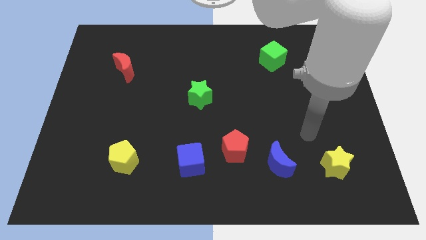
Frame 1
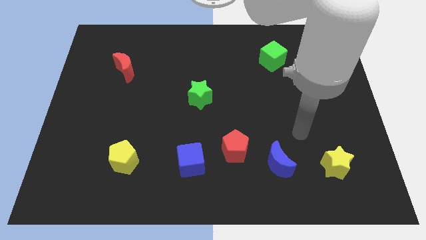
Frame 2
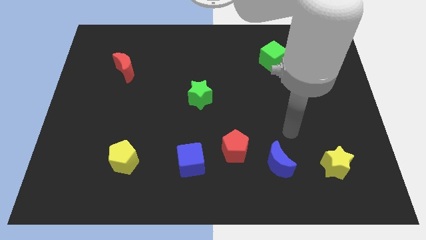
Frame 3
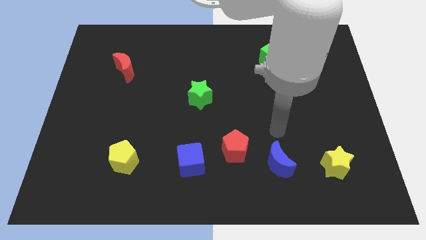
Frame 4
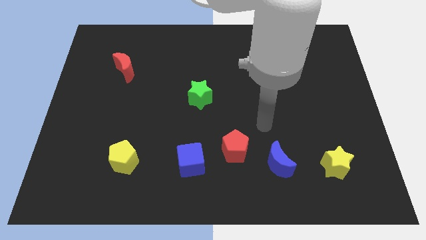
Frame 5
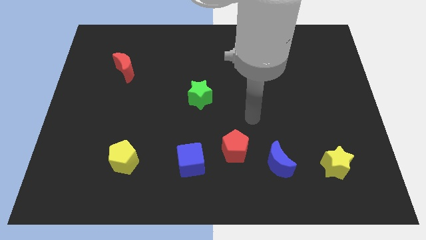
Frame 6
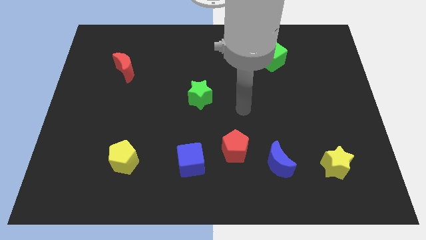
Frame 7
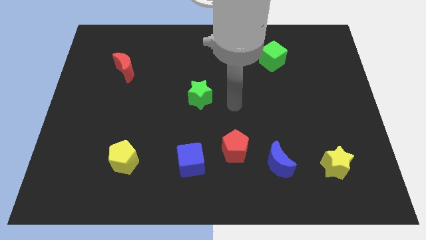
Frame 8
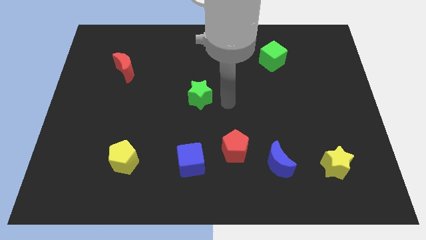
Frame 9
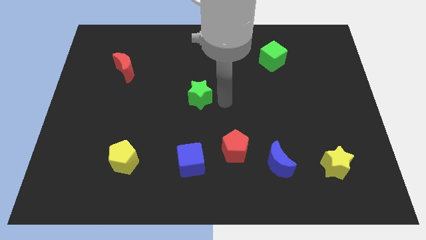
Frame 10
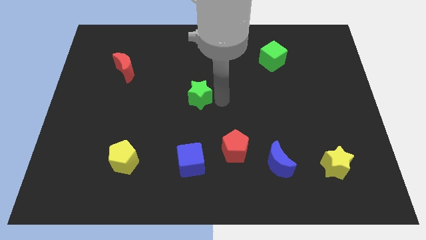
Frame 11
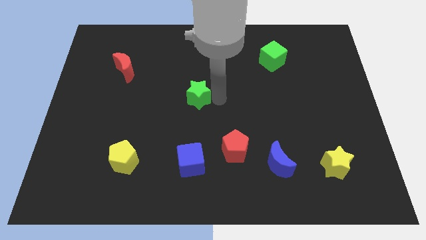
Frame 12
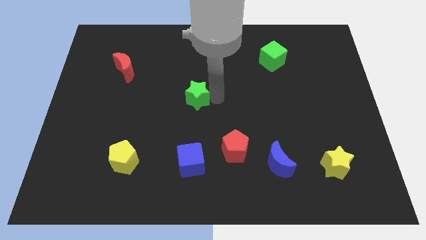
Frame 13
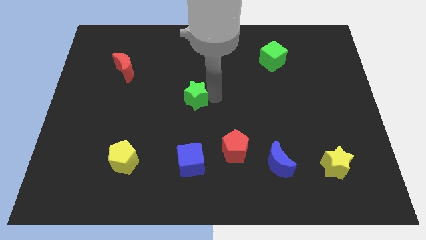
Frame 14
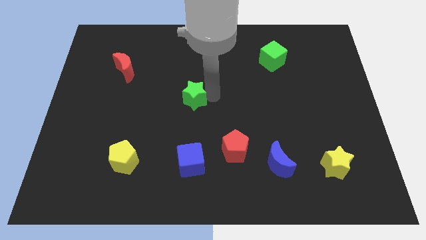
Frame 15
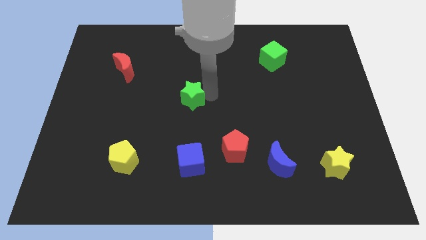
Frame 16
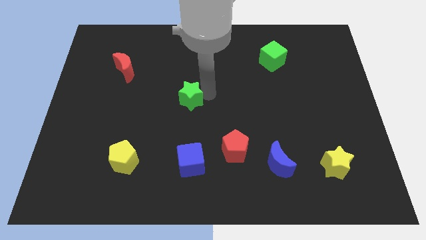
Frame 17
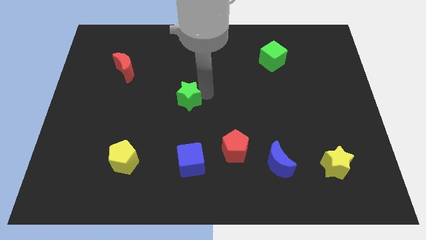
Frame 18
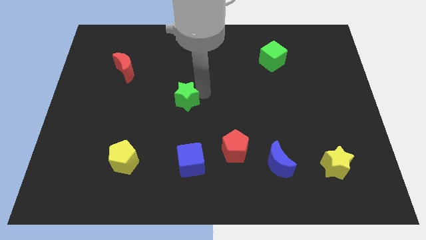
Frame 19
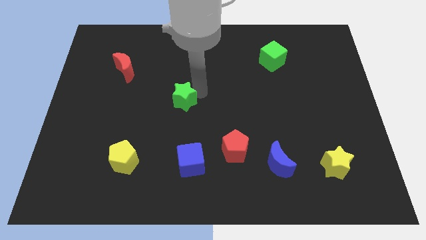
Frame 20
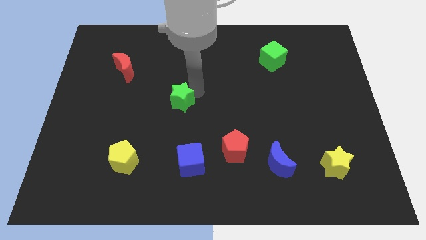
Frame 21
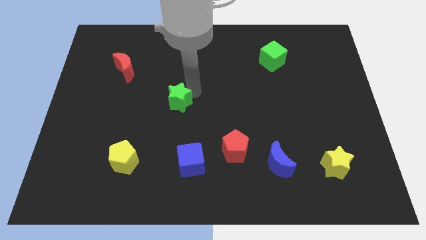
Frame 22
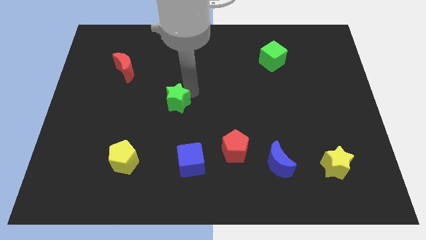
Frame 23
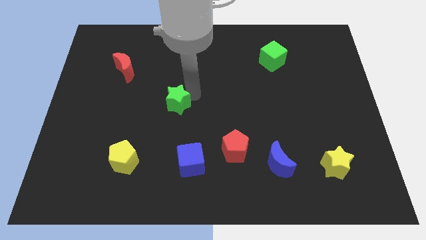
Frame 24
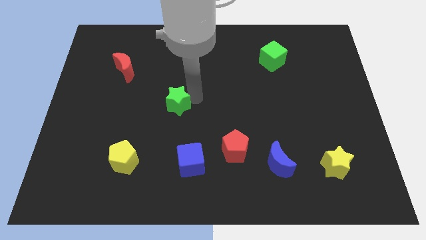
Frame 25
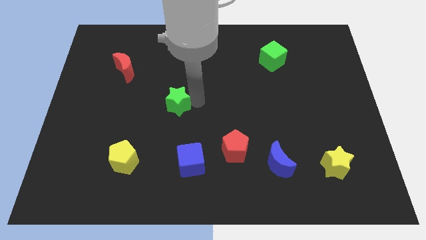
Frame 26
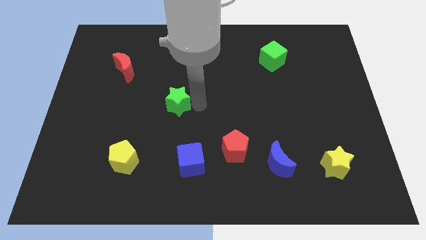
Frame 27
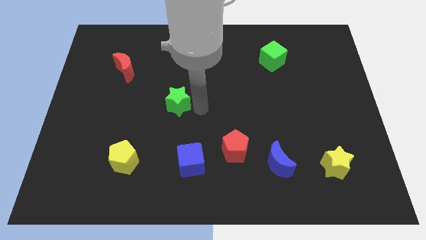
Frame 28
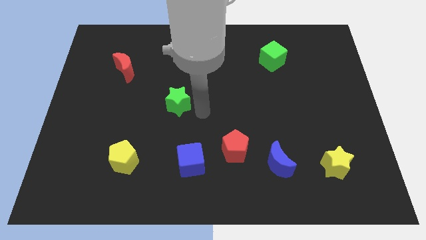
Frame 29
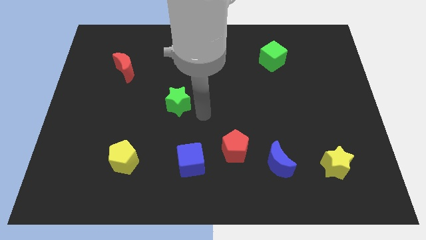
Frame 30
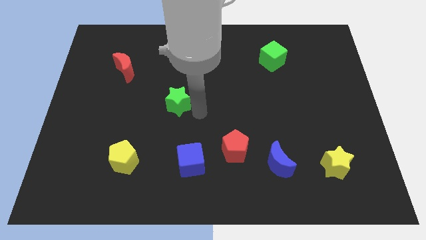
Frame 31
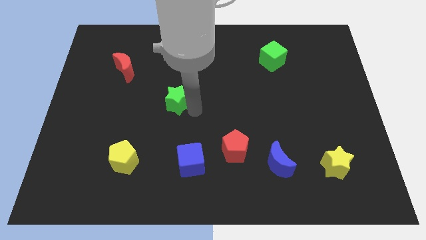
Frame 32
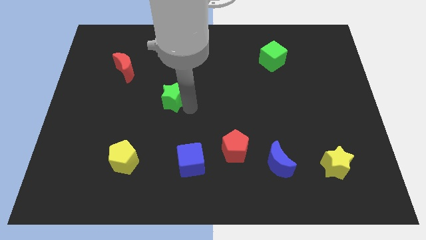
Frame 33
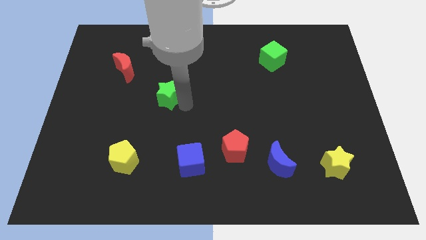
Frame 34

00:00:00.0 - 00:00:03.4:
move the green star left a bit

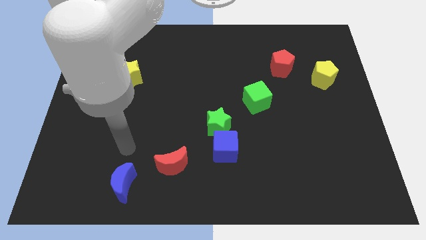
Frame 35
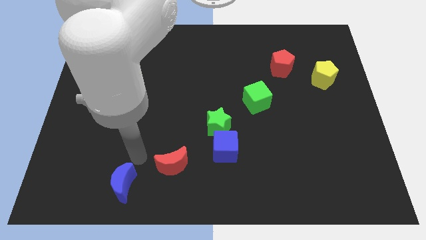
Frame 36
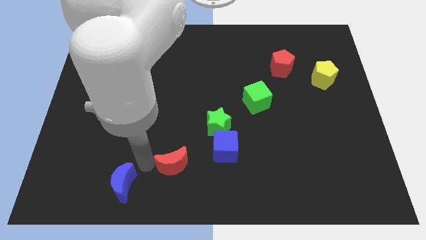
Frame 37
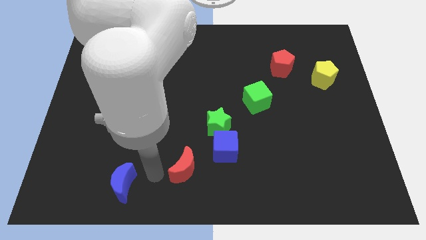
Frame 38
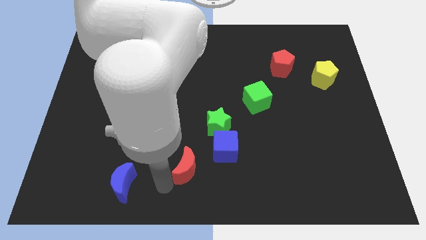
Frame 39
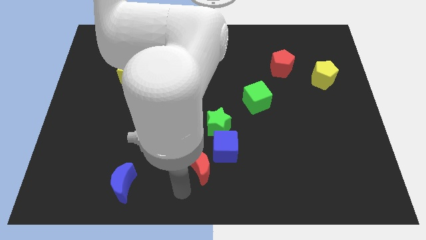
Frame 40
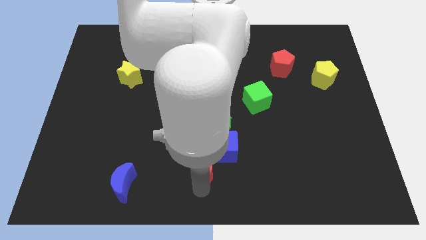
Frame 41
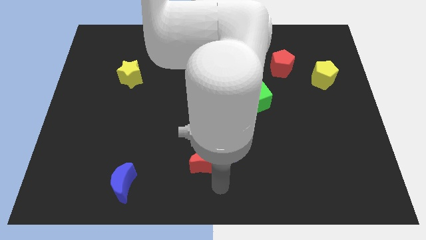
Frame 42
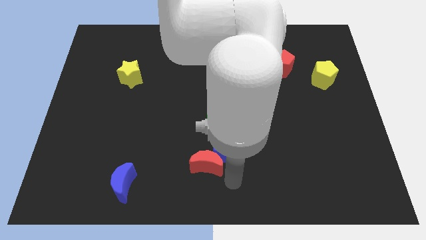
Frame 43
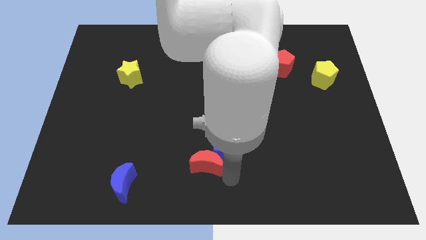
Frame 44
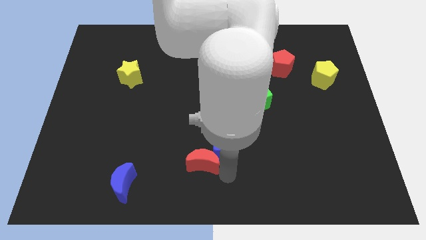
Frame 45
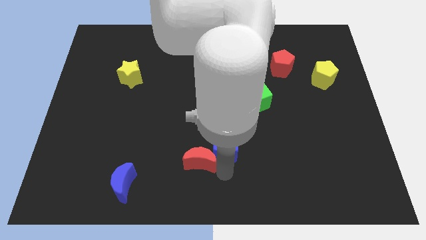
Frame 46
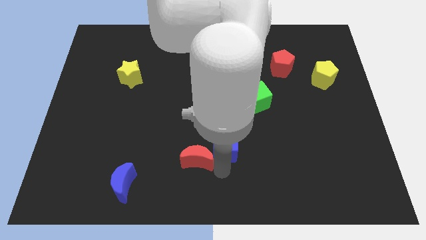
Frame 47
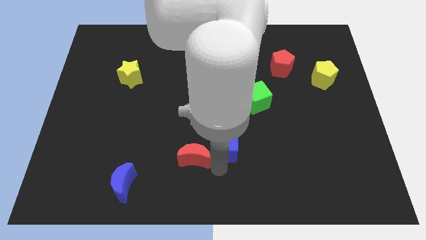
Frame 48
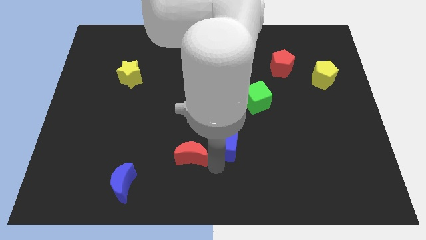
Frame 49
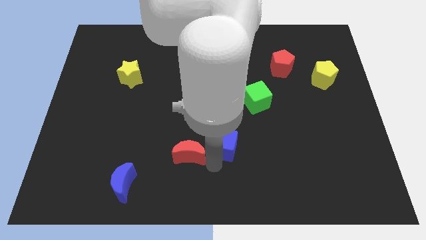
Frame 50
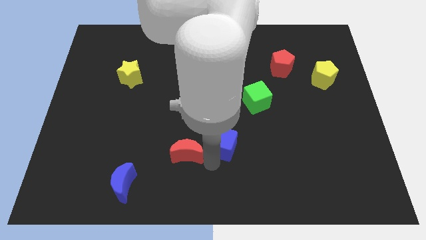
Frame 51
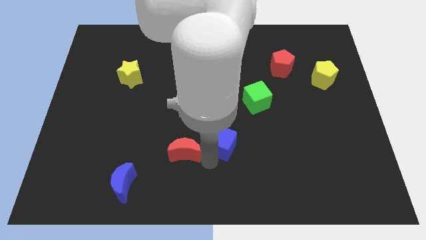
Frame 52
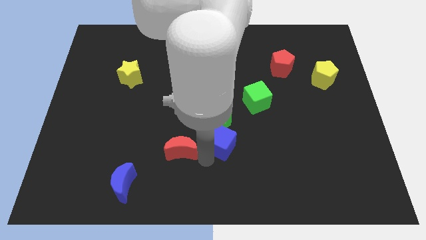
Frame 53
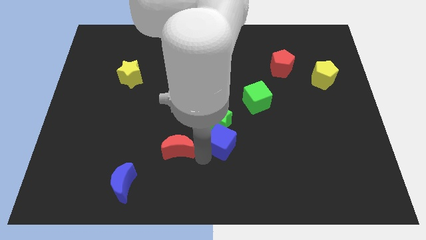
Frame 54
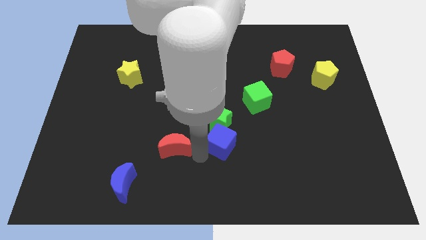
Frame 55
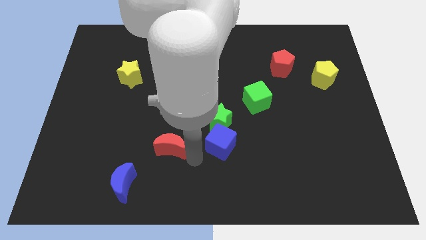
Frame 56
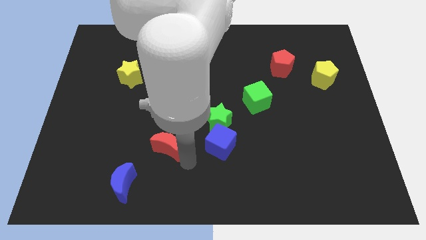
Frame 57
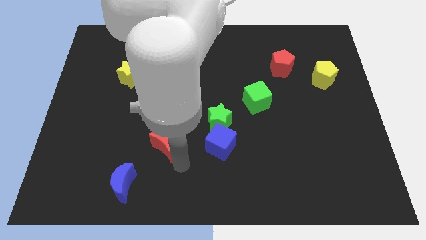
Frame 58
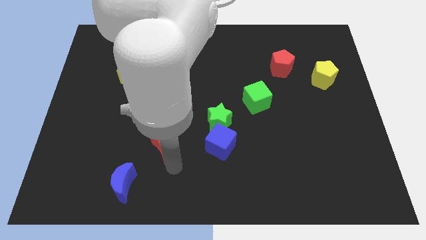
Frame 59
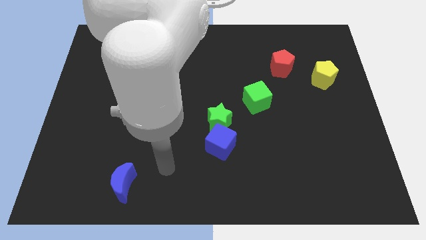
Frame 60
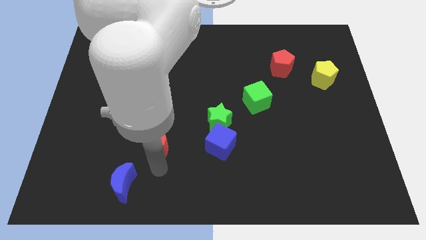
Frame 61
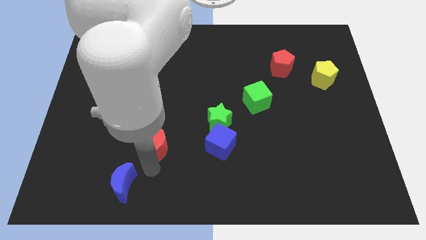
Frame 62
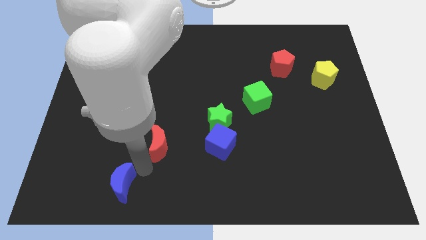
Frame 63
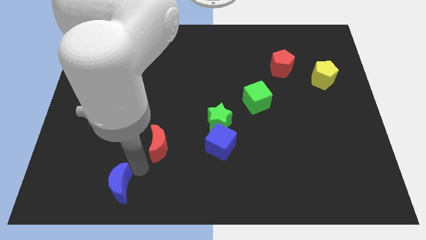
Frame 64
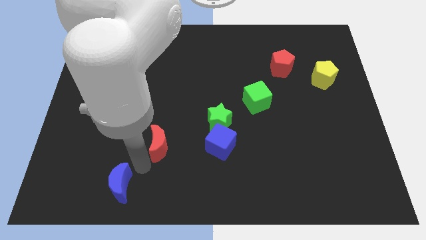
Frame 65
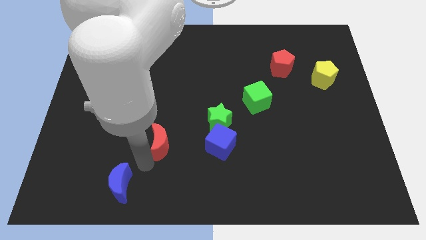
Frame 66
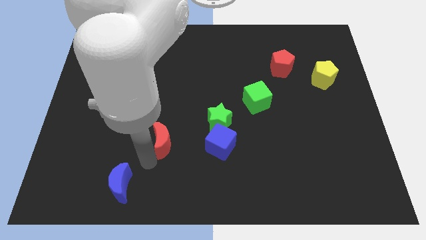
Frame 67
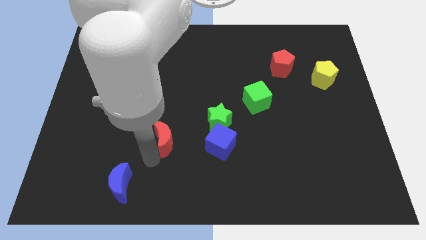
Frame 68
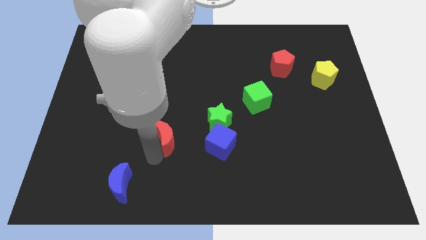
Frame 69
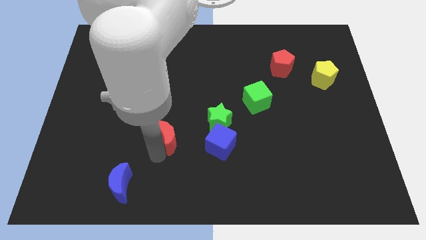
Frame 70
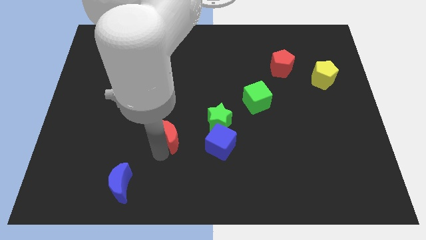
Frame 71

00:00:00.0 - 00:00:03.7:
slightly slide the red moon upwards

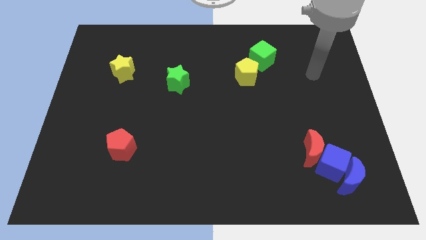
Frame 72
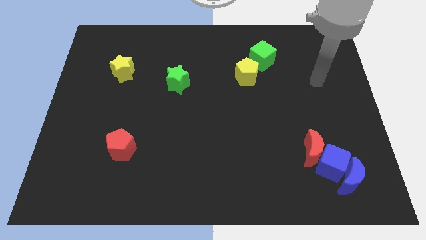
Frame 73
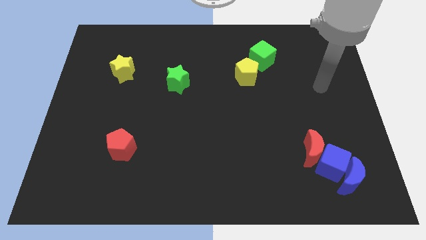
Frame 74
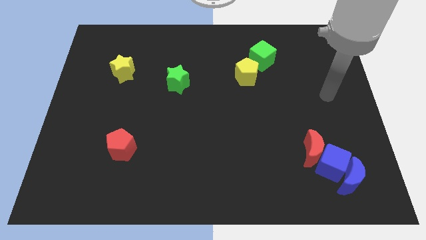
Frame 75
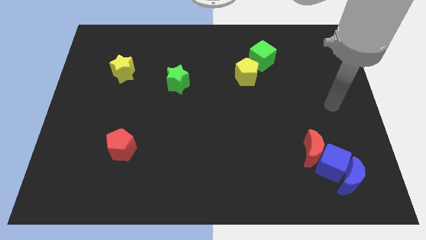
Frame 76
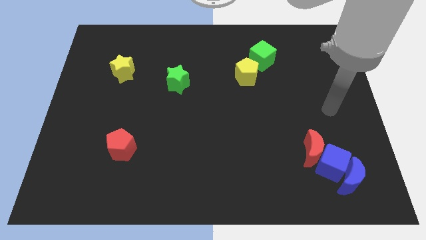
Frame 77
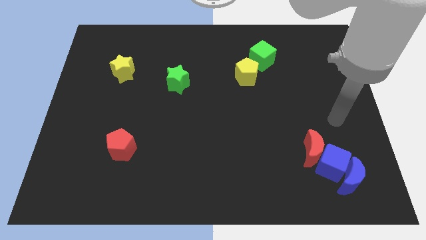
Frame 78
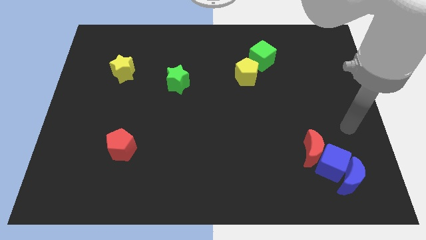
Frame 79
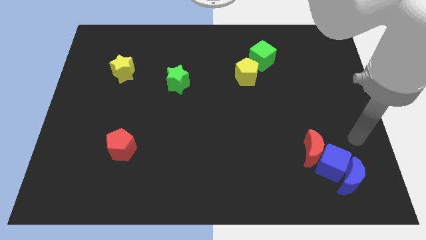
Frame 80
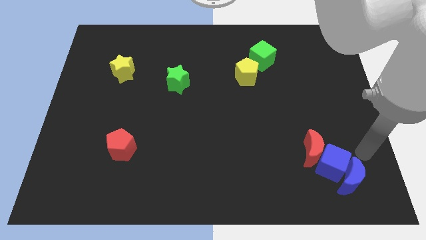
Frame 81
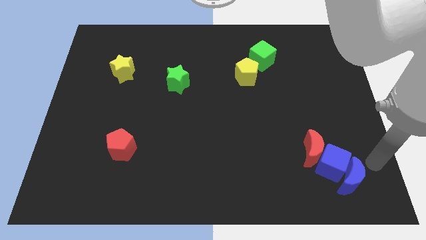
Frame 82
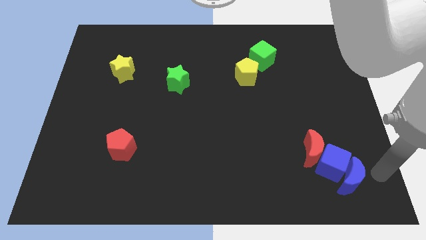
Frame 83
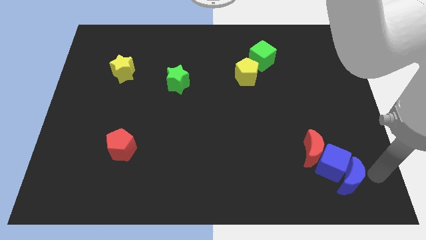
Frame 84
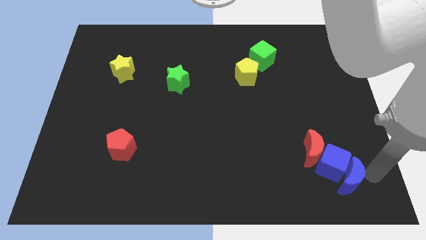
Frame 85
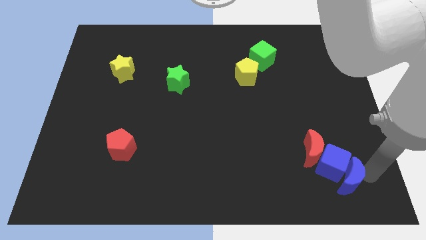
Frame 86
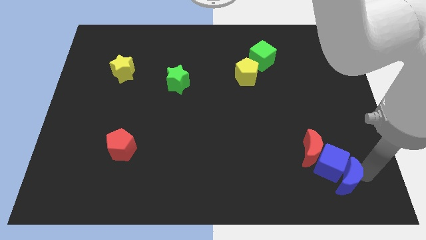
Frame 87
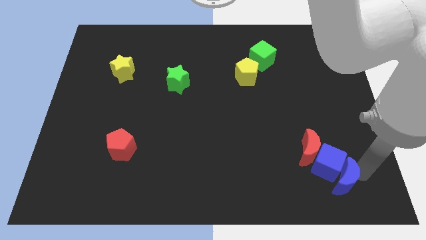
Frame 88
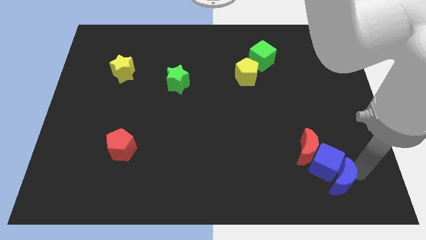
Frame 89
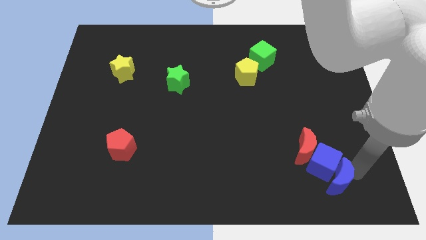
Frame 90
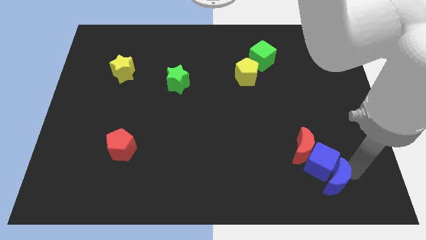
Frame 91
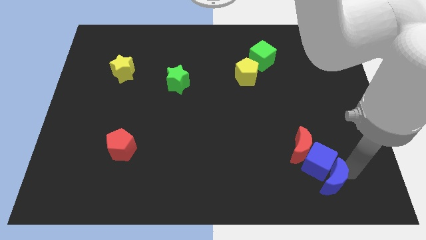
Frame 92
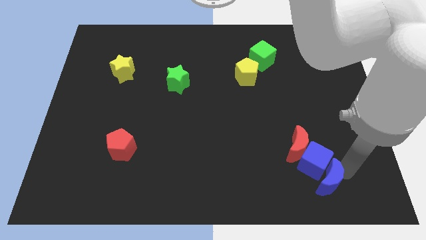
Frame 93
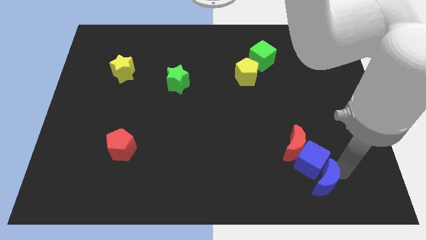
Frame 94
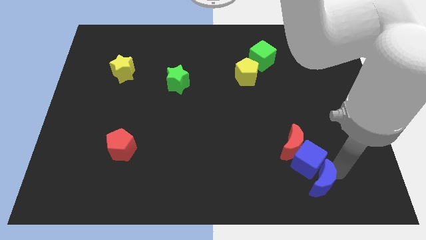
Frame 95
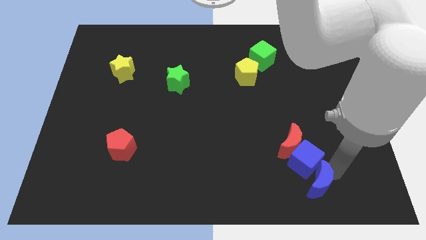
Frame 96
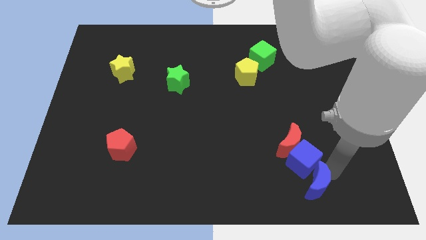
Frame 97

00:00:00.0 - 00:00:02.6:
push the blue moon to the left somewhat
